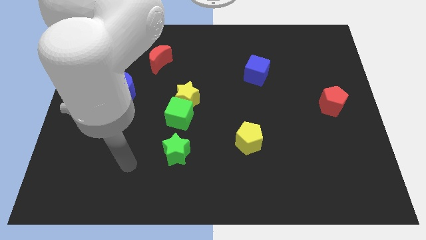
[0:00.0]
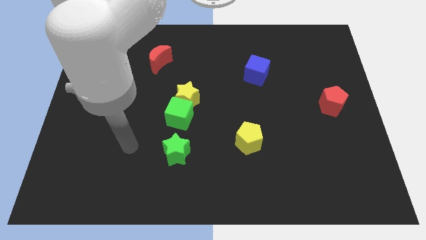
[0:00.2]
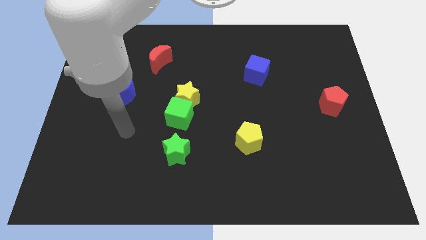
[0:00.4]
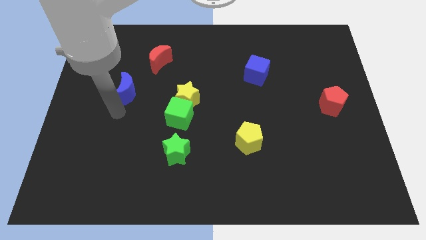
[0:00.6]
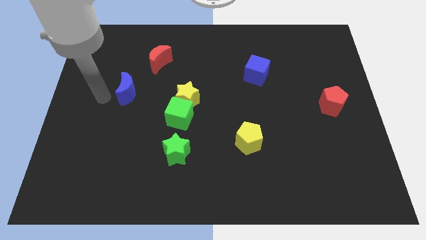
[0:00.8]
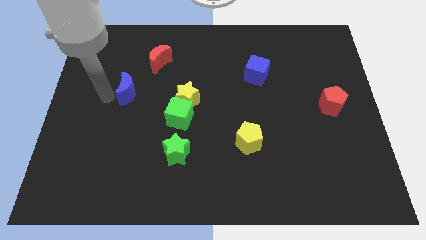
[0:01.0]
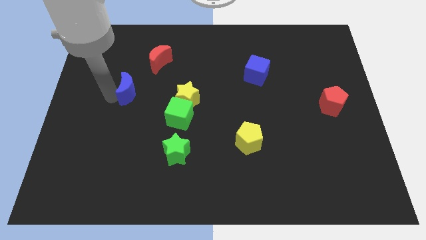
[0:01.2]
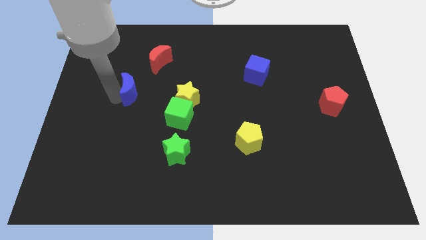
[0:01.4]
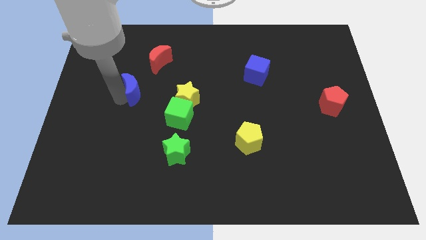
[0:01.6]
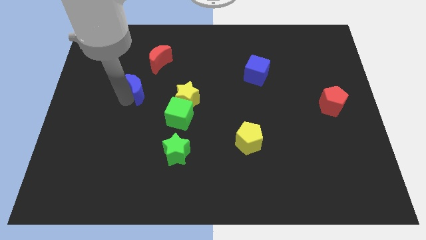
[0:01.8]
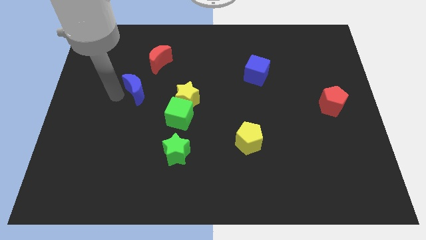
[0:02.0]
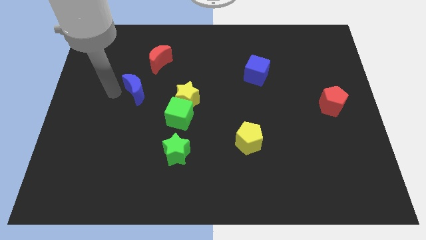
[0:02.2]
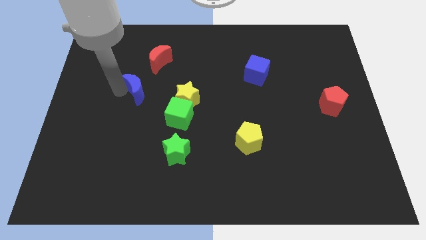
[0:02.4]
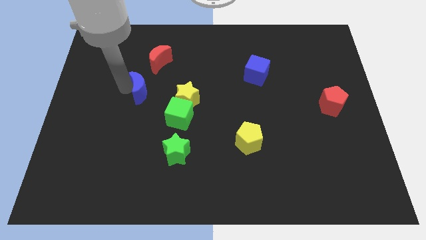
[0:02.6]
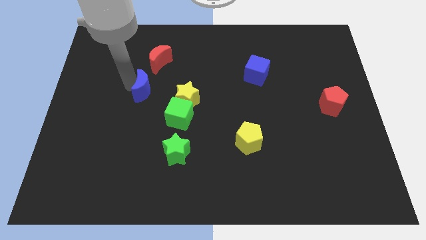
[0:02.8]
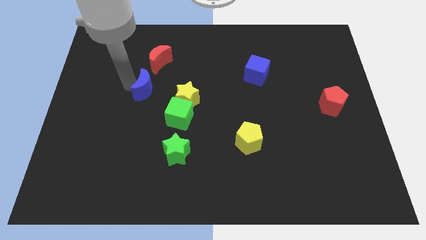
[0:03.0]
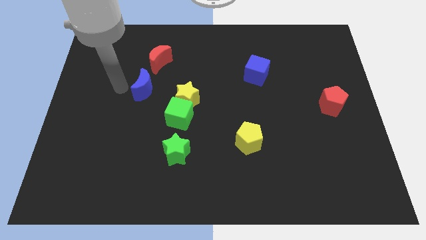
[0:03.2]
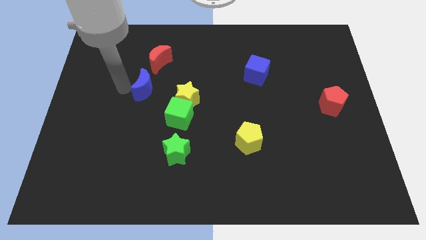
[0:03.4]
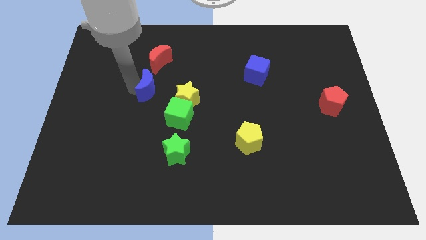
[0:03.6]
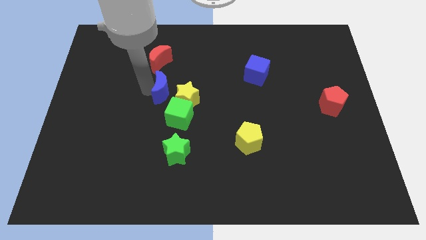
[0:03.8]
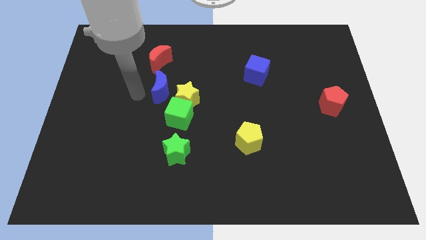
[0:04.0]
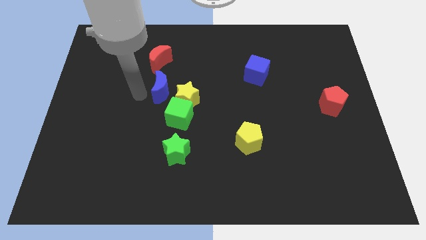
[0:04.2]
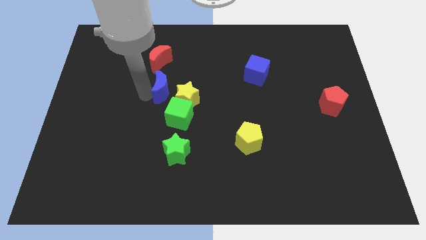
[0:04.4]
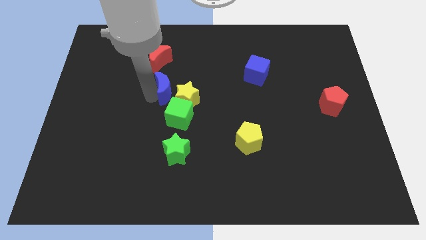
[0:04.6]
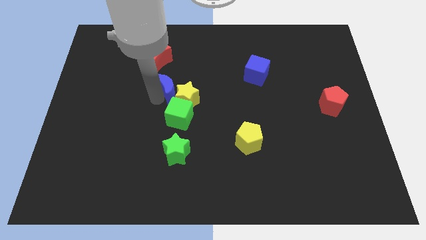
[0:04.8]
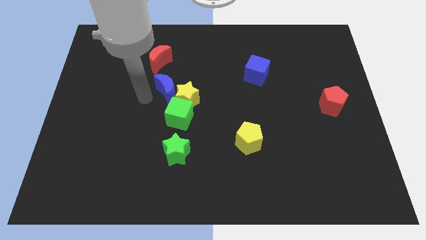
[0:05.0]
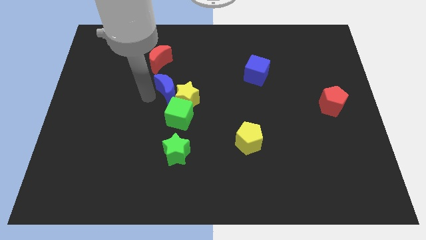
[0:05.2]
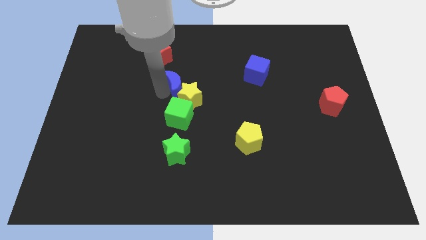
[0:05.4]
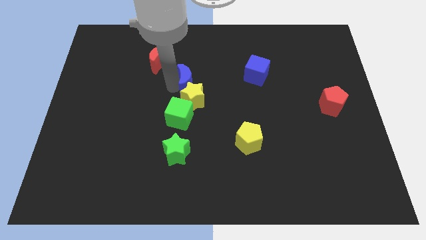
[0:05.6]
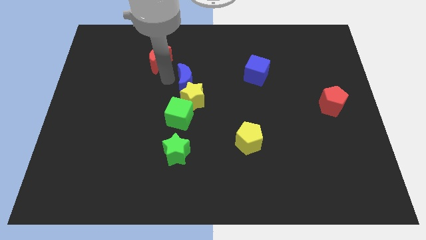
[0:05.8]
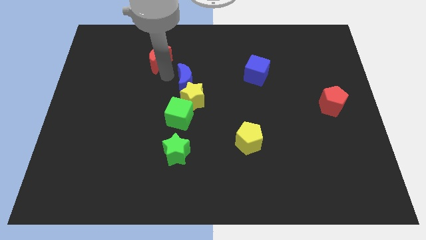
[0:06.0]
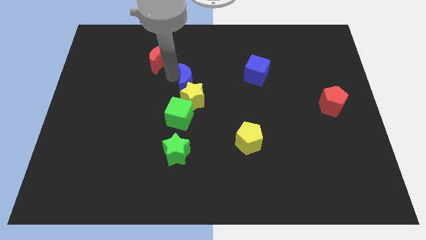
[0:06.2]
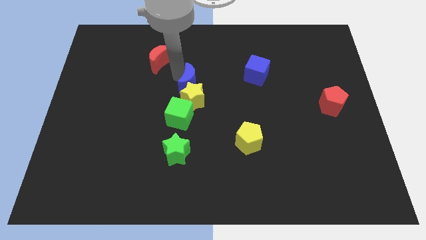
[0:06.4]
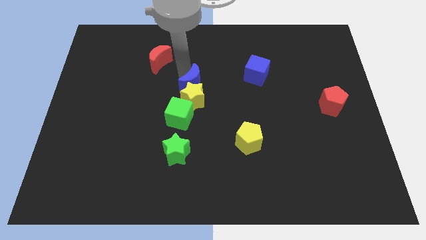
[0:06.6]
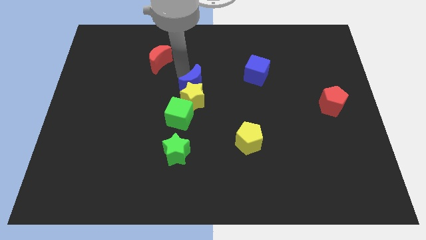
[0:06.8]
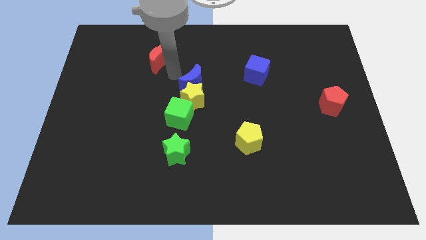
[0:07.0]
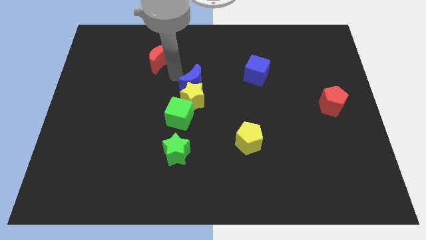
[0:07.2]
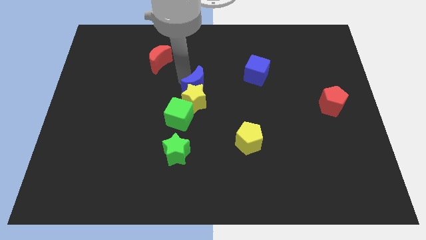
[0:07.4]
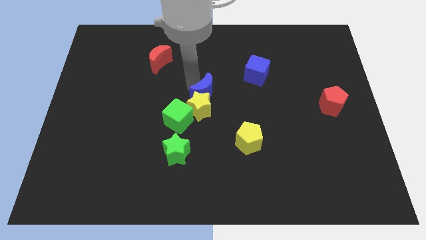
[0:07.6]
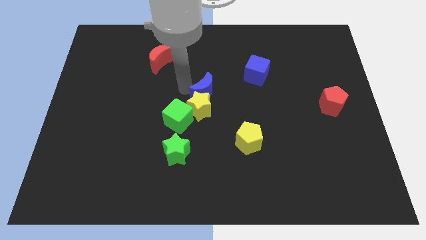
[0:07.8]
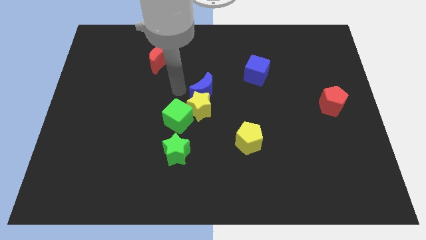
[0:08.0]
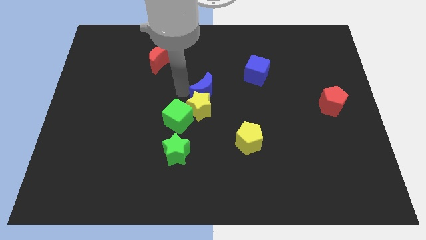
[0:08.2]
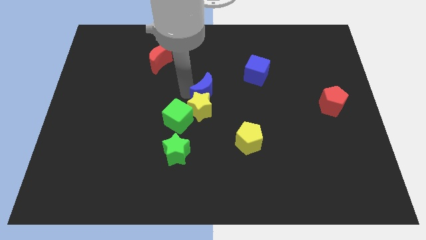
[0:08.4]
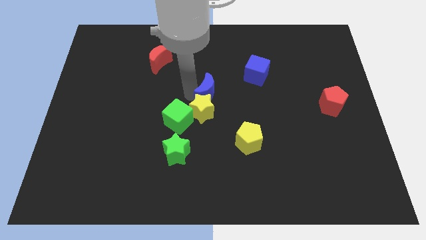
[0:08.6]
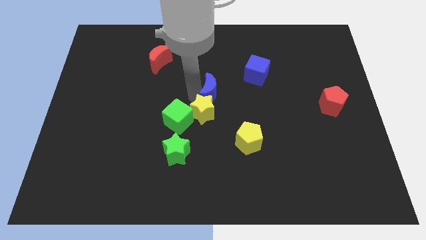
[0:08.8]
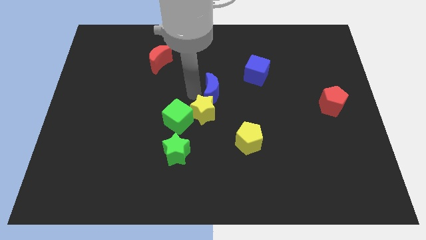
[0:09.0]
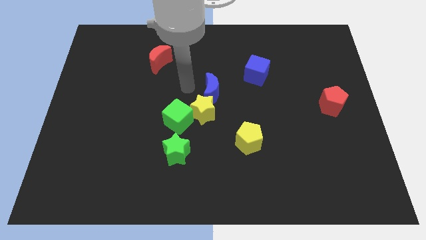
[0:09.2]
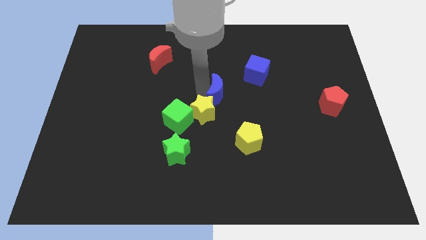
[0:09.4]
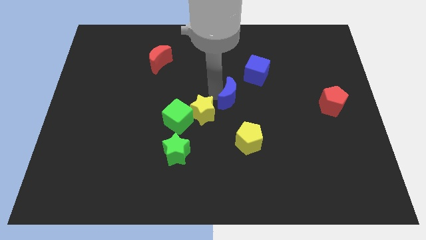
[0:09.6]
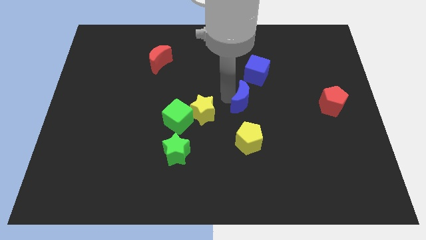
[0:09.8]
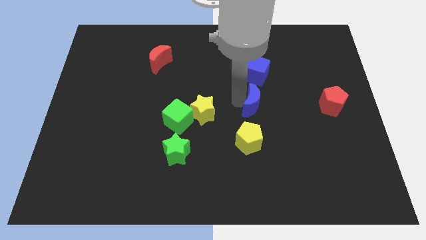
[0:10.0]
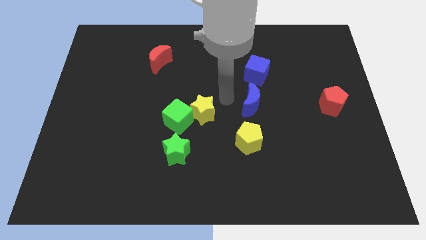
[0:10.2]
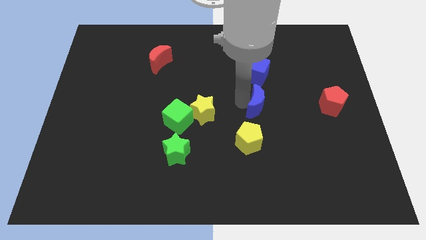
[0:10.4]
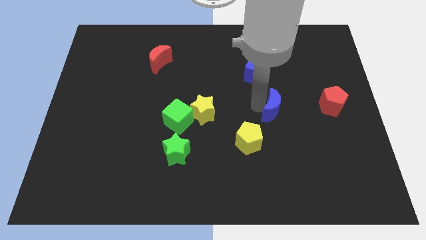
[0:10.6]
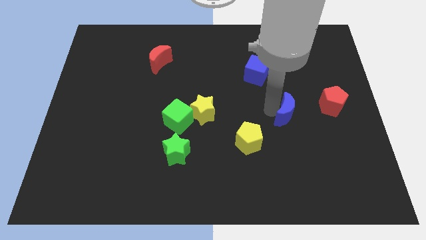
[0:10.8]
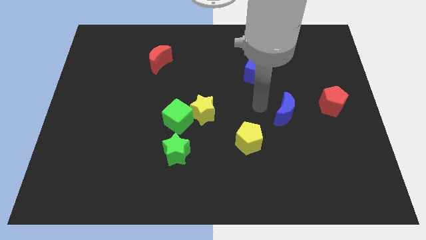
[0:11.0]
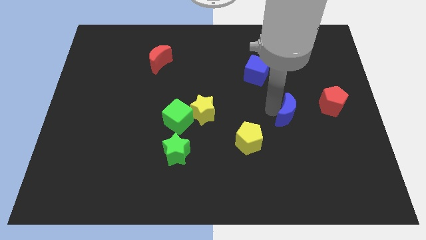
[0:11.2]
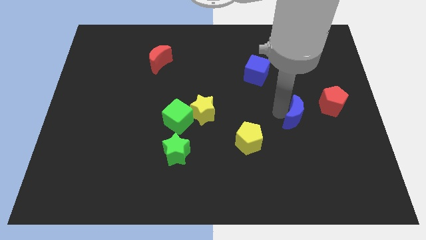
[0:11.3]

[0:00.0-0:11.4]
slide the blue moon diagonally down and to the left of the red pentagon

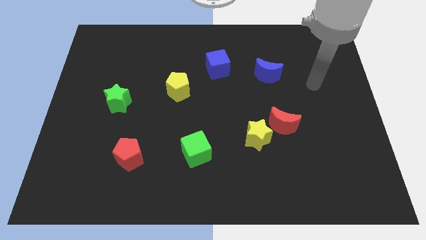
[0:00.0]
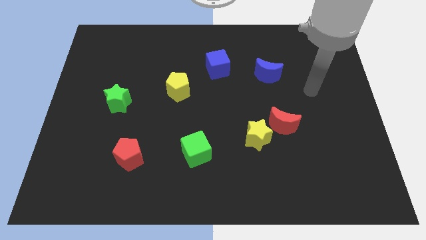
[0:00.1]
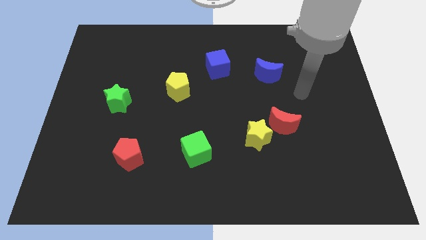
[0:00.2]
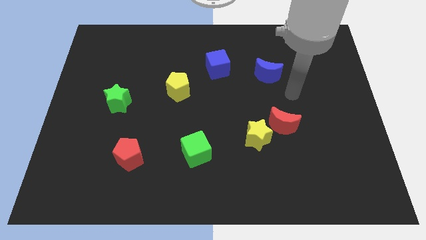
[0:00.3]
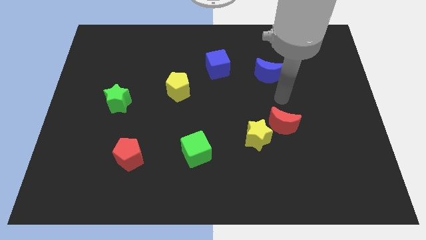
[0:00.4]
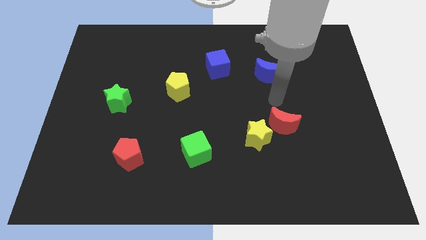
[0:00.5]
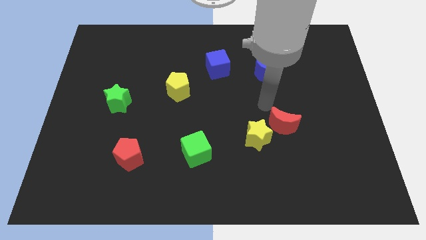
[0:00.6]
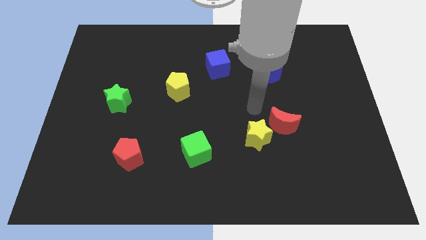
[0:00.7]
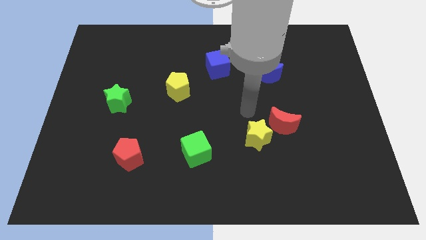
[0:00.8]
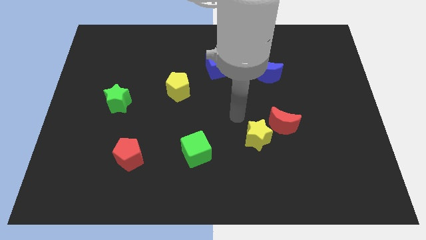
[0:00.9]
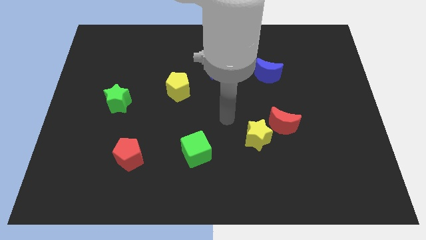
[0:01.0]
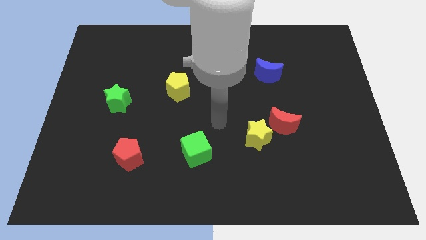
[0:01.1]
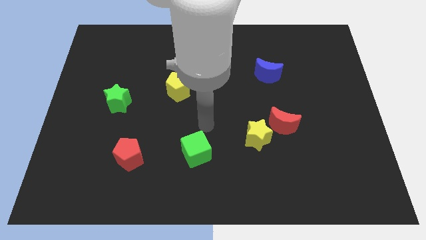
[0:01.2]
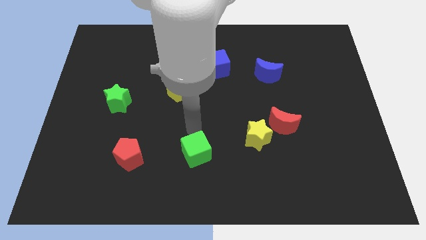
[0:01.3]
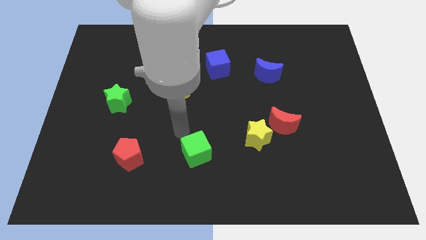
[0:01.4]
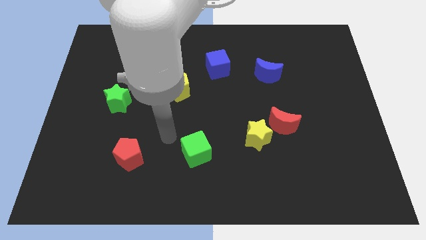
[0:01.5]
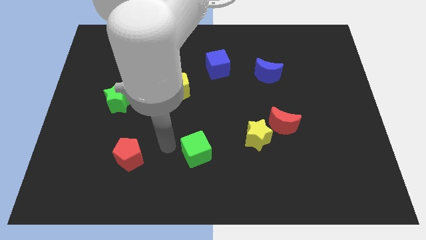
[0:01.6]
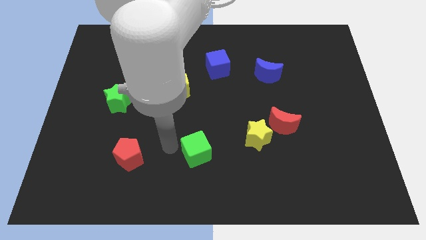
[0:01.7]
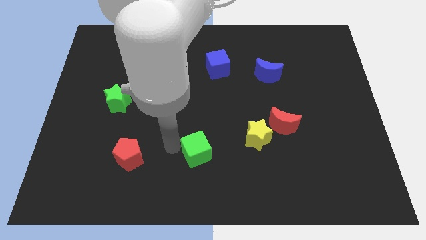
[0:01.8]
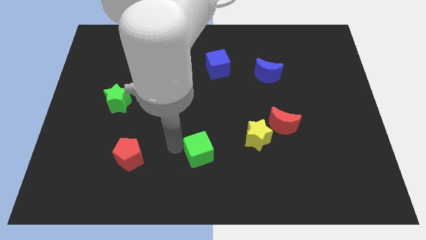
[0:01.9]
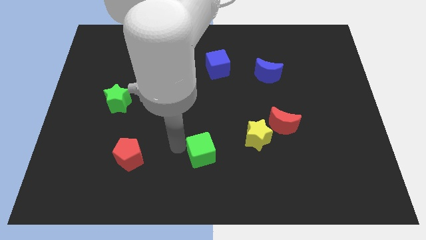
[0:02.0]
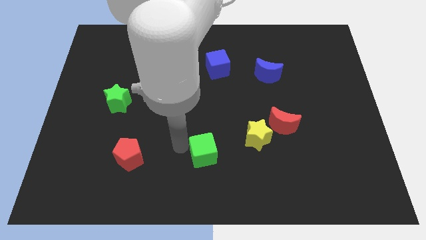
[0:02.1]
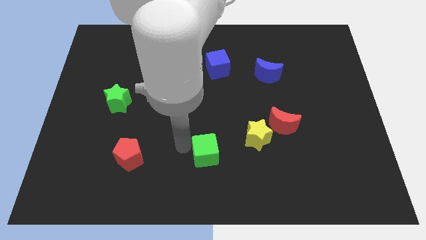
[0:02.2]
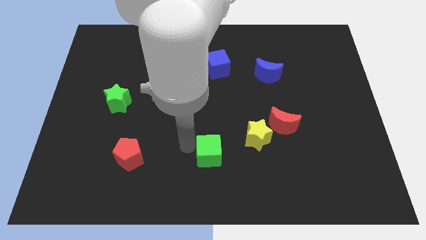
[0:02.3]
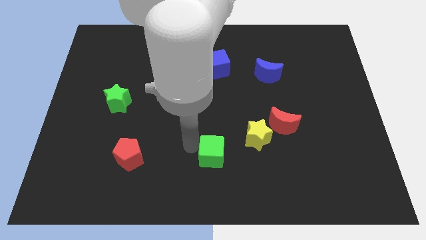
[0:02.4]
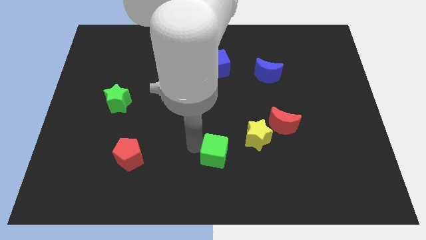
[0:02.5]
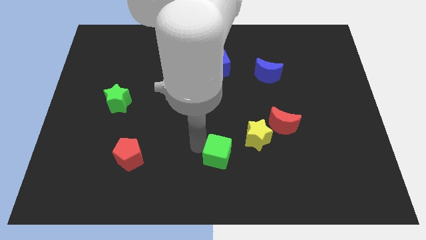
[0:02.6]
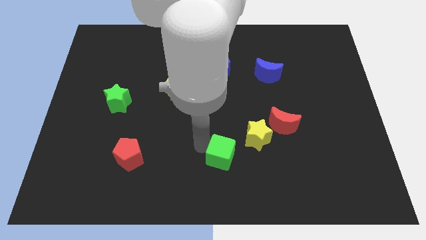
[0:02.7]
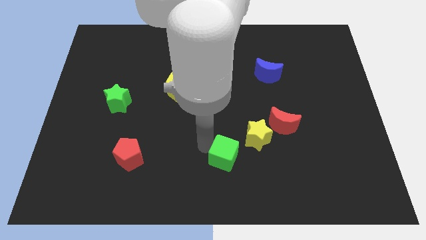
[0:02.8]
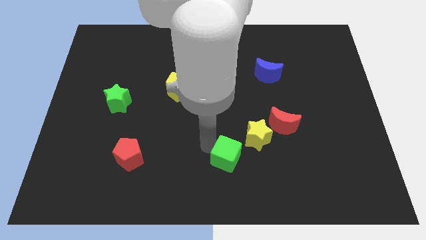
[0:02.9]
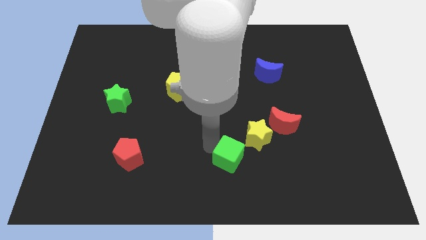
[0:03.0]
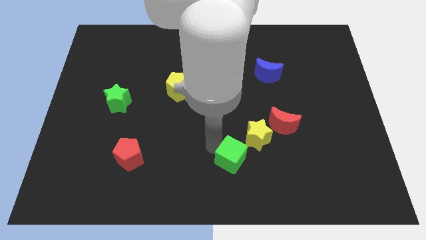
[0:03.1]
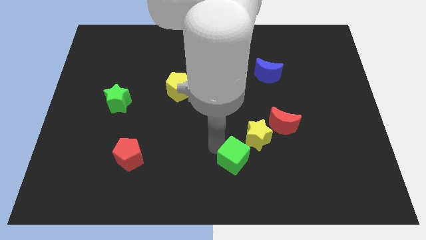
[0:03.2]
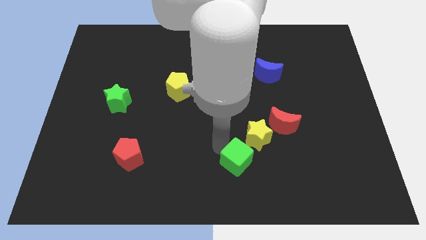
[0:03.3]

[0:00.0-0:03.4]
slide the green cube to the bottom side of the yellow star
